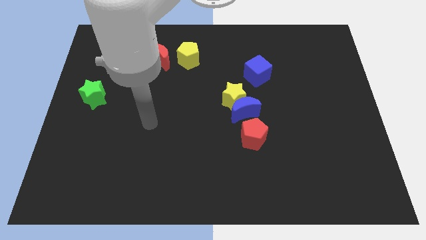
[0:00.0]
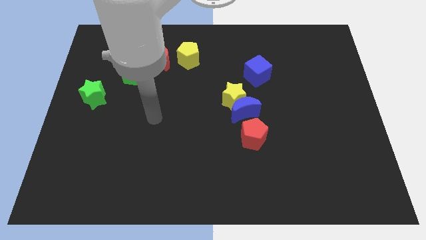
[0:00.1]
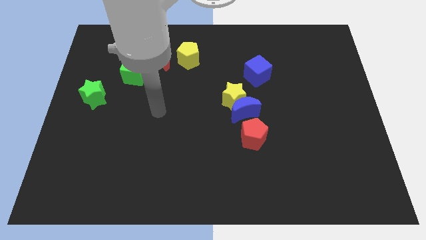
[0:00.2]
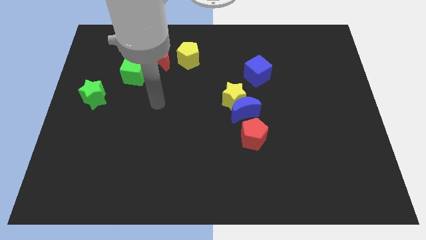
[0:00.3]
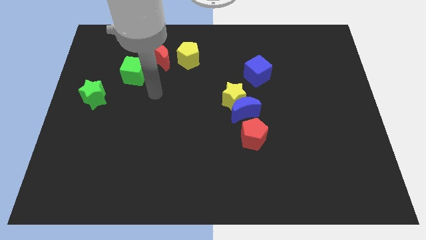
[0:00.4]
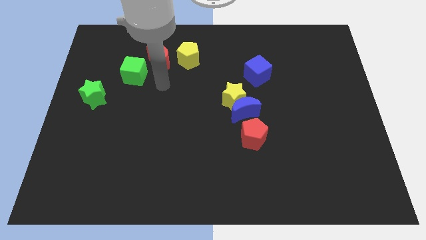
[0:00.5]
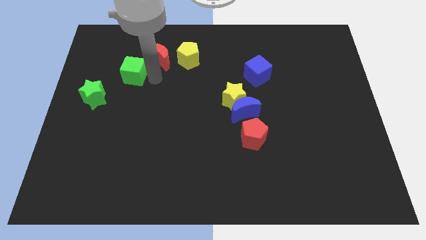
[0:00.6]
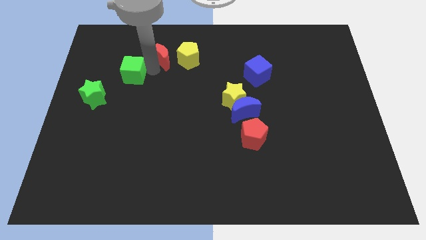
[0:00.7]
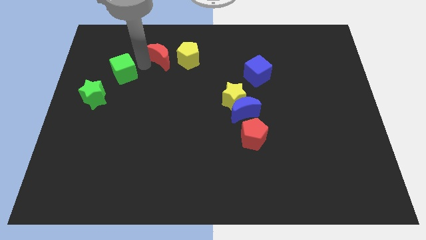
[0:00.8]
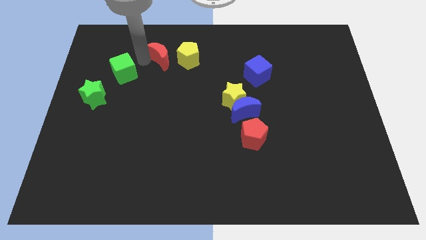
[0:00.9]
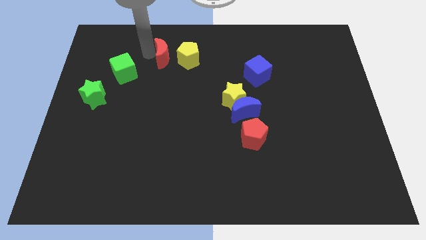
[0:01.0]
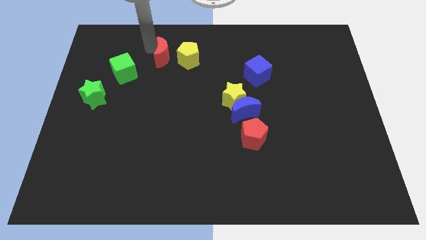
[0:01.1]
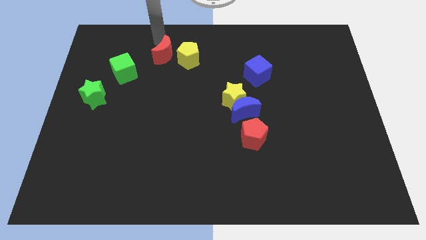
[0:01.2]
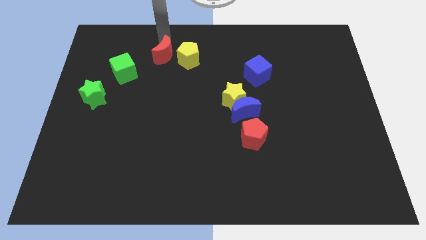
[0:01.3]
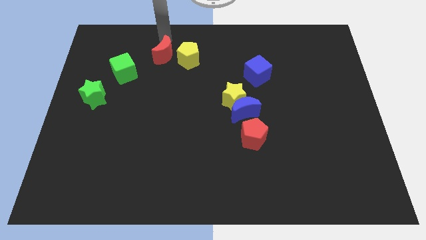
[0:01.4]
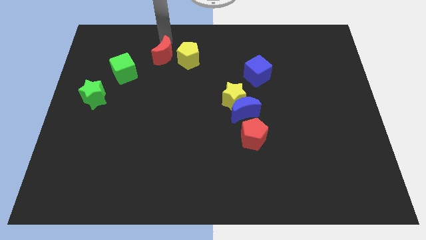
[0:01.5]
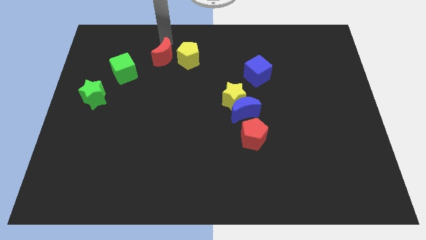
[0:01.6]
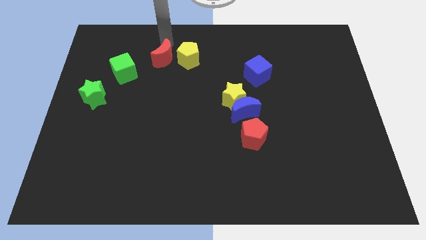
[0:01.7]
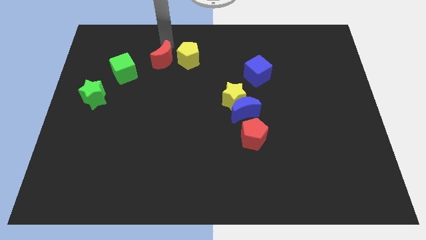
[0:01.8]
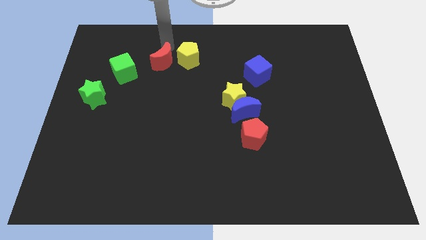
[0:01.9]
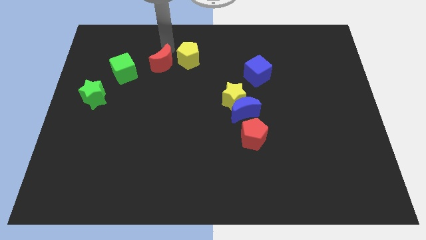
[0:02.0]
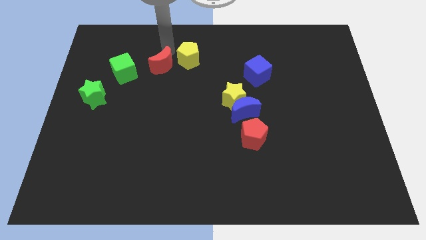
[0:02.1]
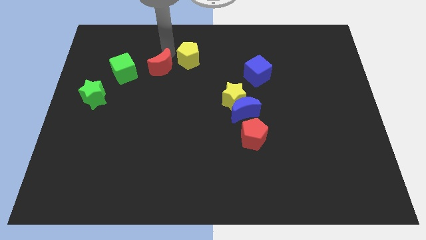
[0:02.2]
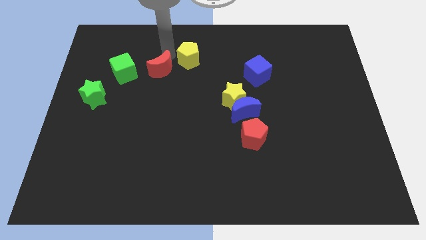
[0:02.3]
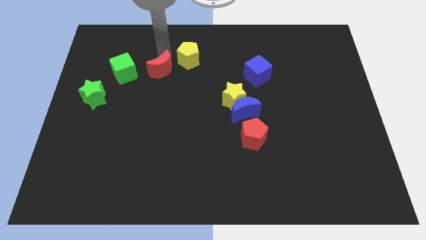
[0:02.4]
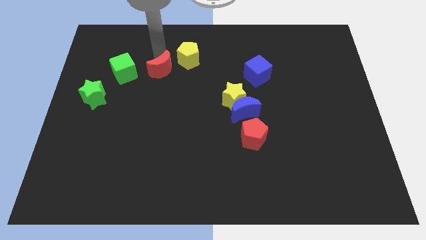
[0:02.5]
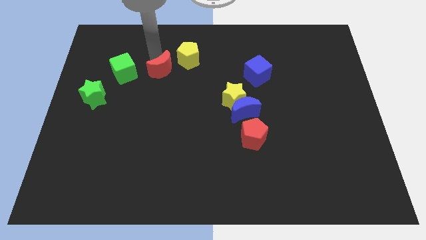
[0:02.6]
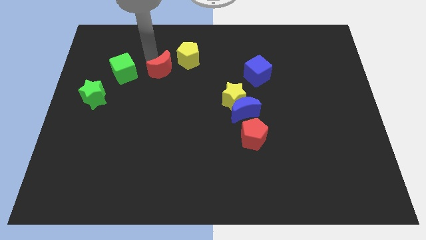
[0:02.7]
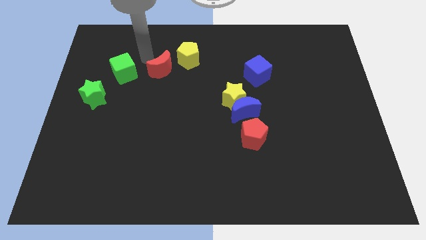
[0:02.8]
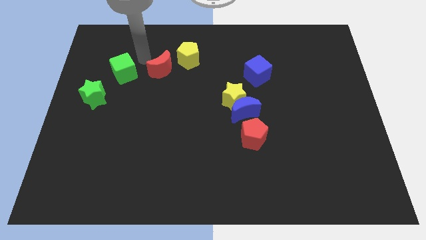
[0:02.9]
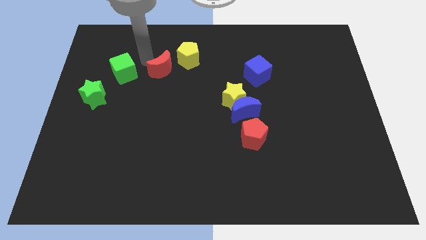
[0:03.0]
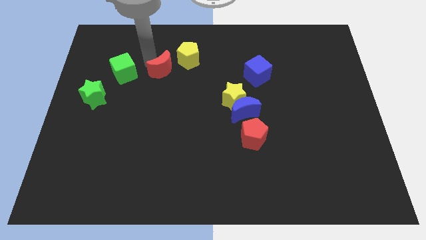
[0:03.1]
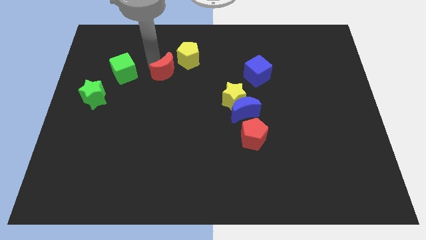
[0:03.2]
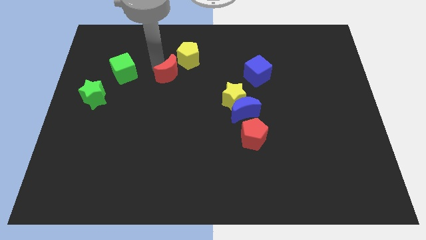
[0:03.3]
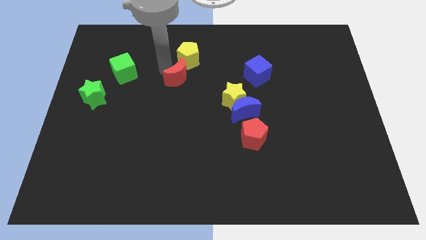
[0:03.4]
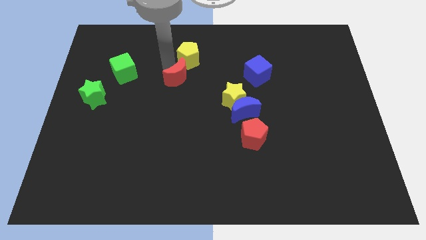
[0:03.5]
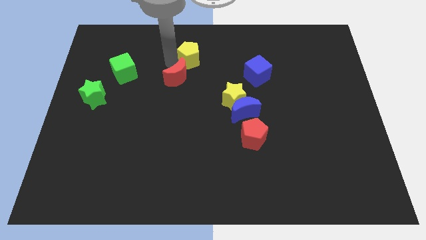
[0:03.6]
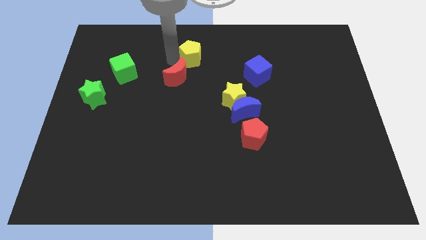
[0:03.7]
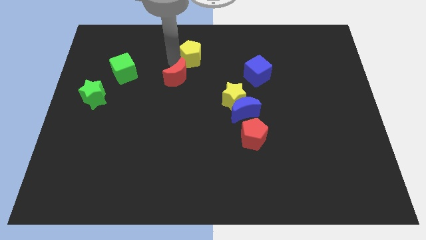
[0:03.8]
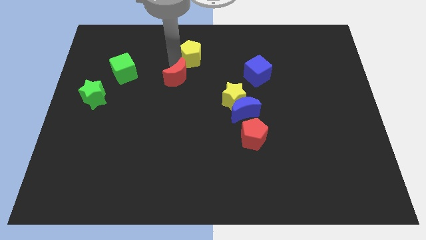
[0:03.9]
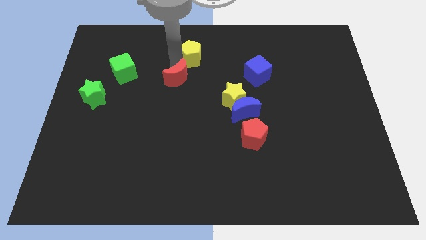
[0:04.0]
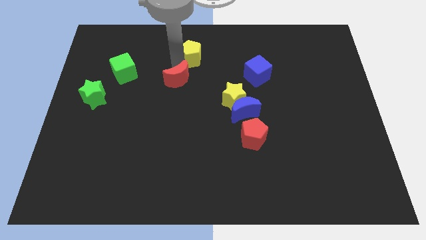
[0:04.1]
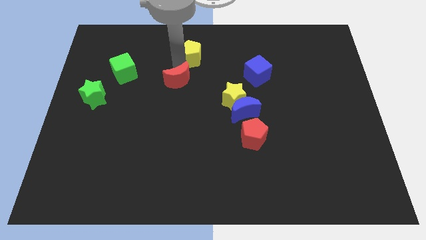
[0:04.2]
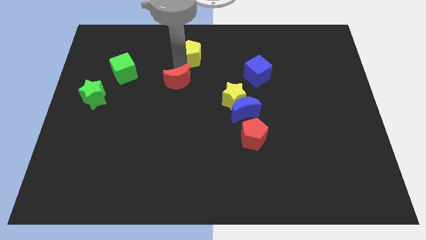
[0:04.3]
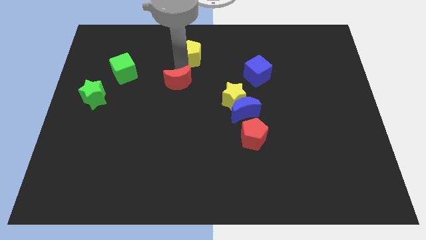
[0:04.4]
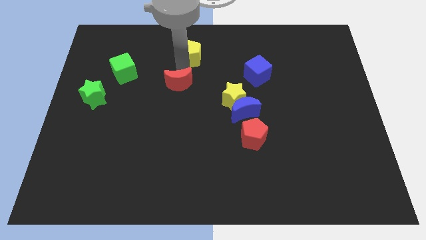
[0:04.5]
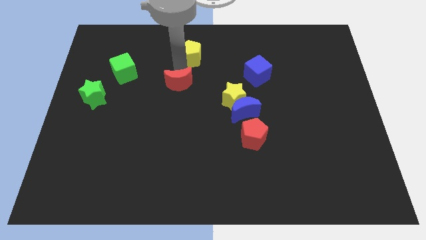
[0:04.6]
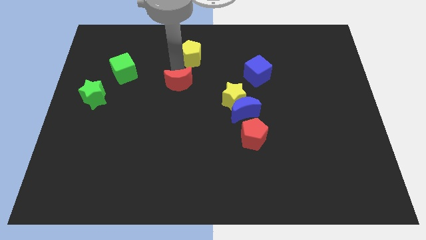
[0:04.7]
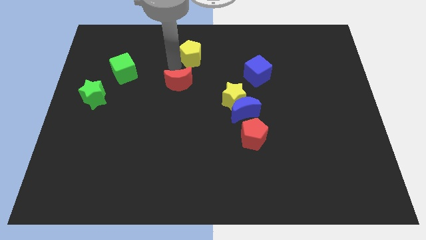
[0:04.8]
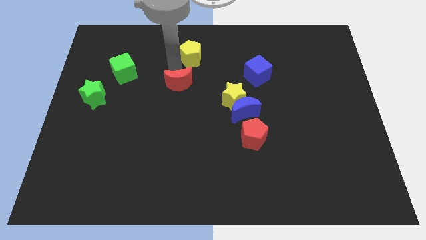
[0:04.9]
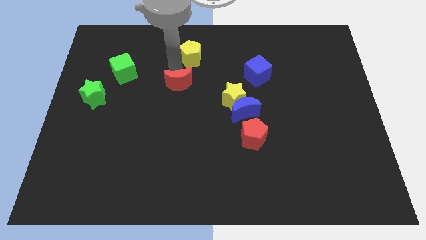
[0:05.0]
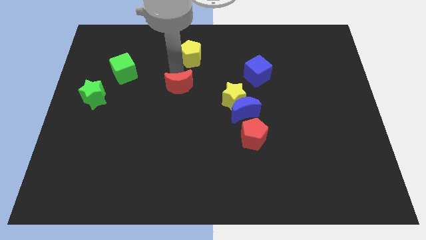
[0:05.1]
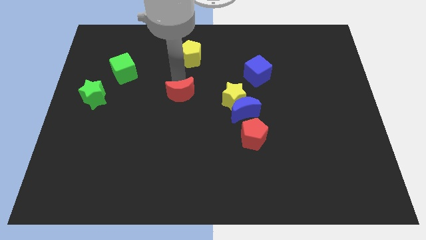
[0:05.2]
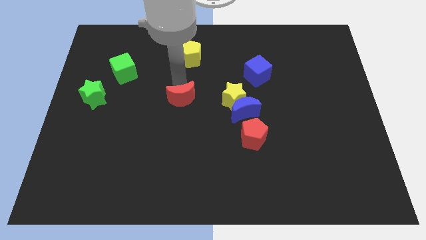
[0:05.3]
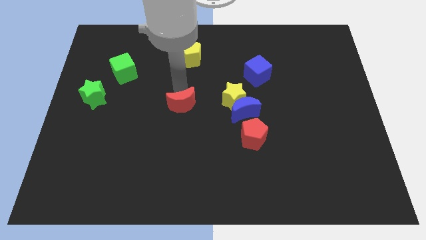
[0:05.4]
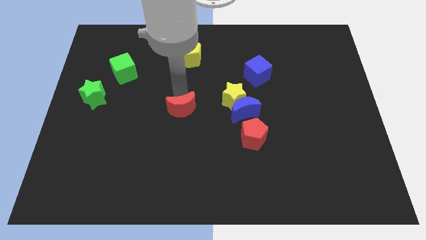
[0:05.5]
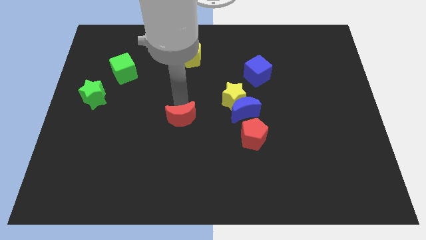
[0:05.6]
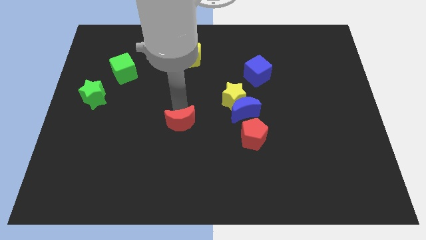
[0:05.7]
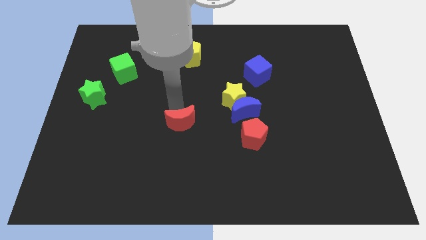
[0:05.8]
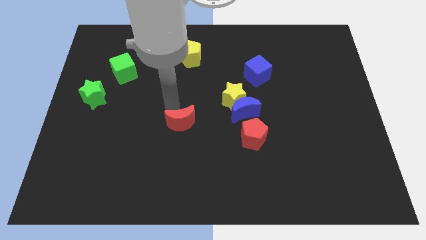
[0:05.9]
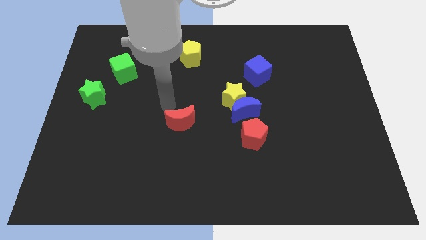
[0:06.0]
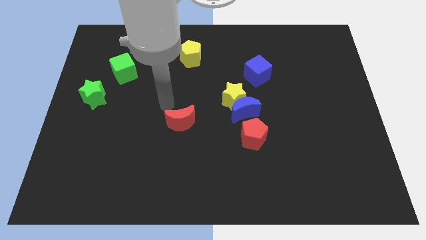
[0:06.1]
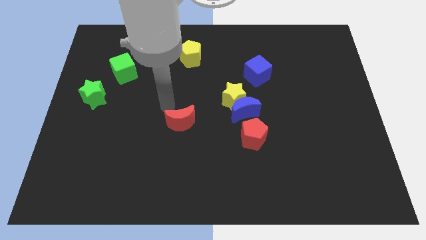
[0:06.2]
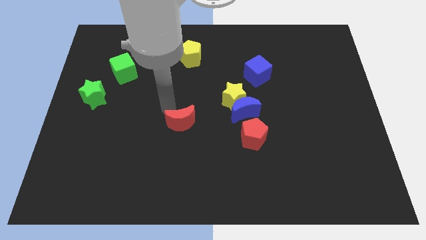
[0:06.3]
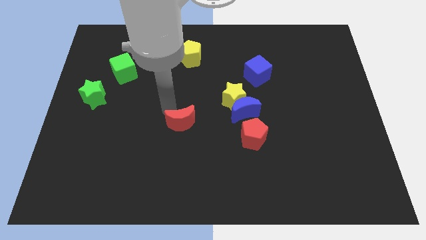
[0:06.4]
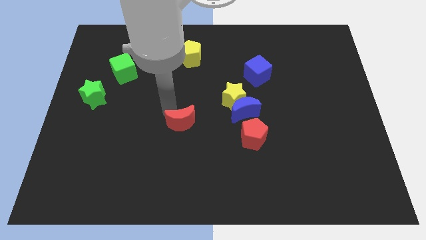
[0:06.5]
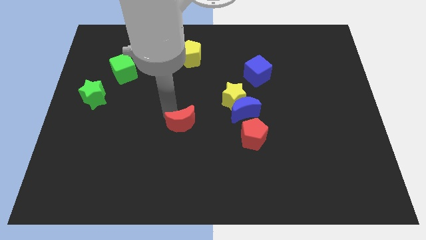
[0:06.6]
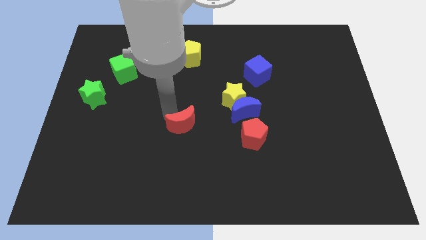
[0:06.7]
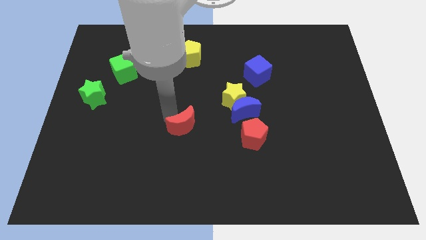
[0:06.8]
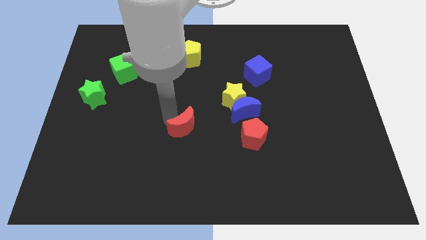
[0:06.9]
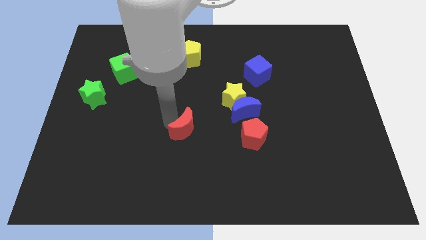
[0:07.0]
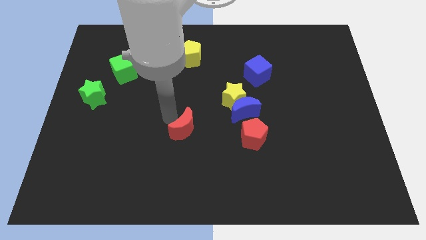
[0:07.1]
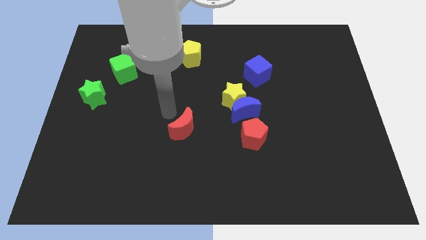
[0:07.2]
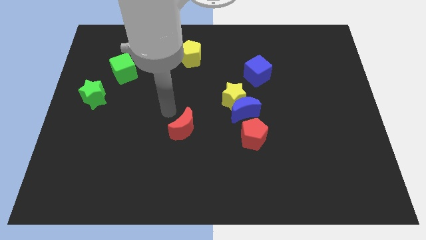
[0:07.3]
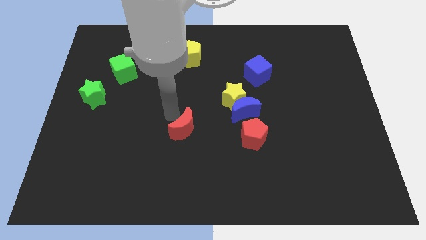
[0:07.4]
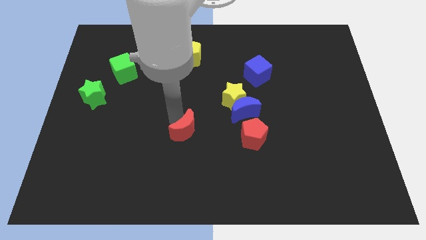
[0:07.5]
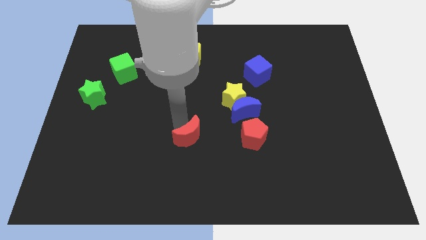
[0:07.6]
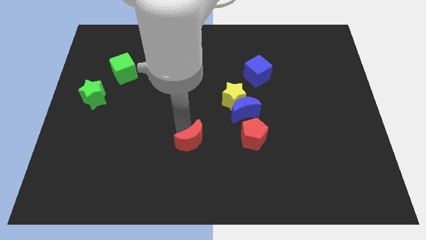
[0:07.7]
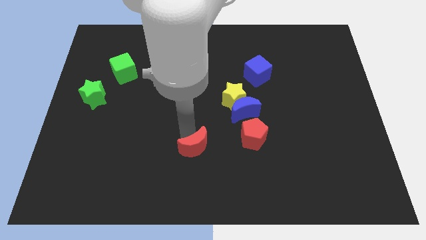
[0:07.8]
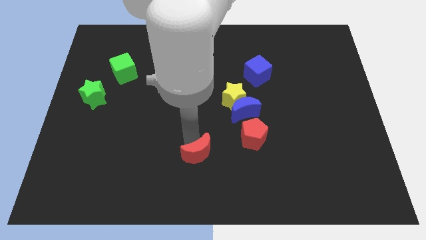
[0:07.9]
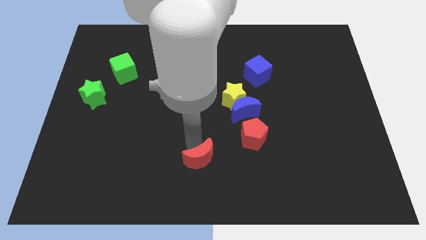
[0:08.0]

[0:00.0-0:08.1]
slide the red moon to the bottom
